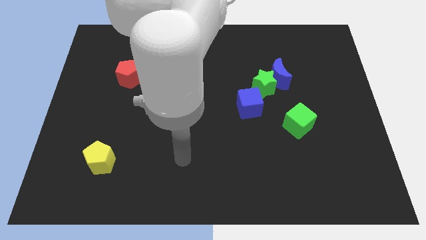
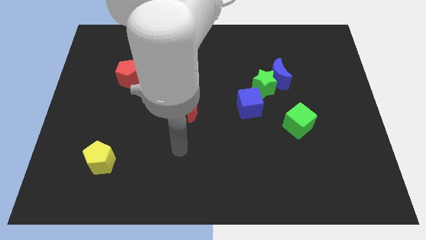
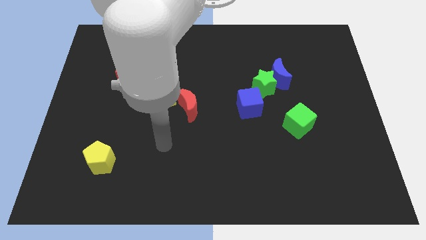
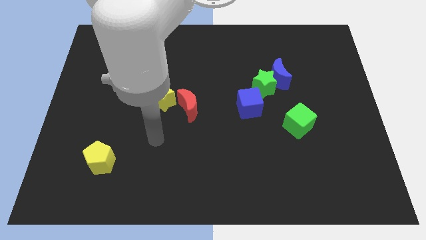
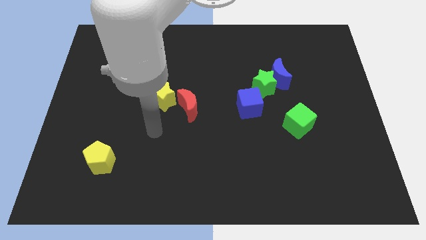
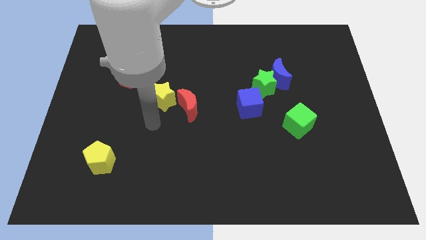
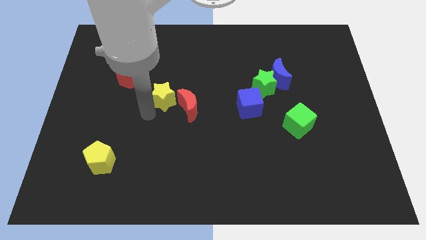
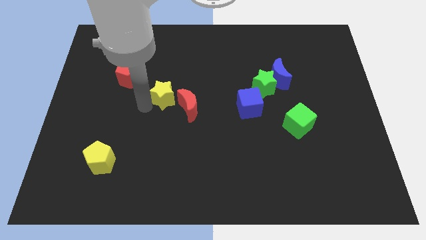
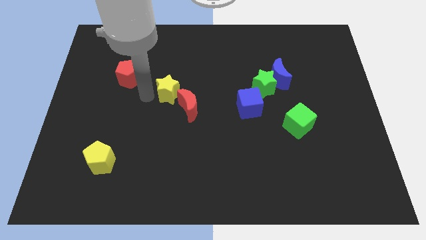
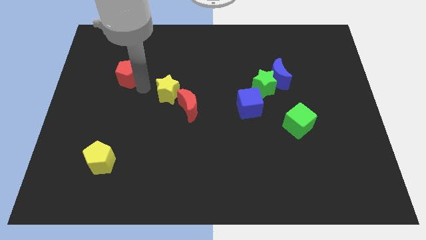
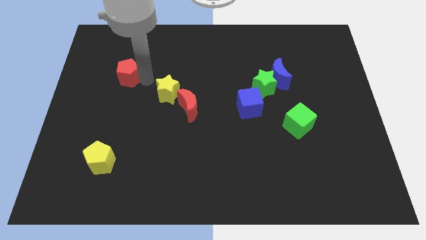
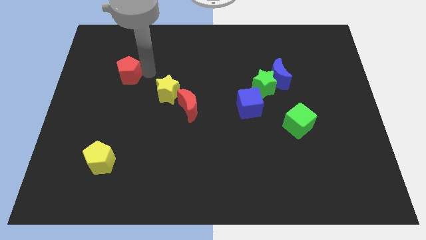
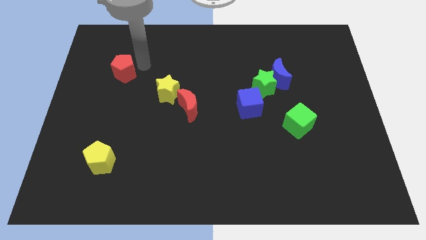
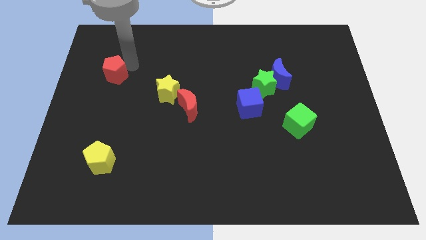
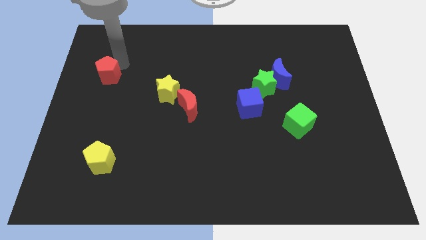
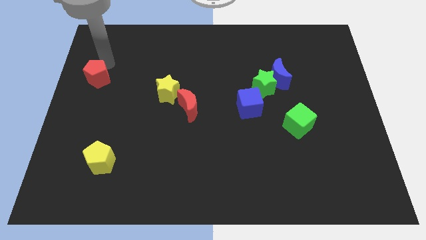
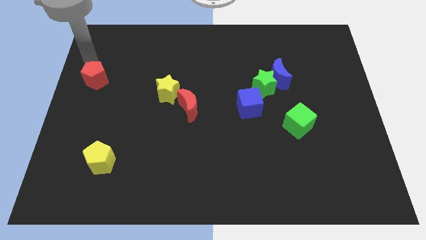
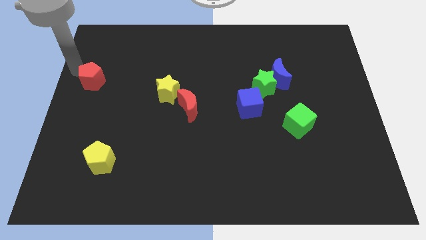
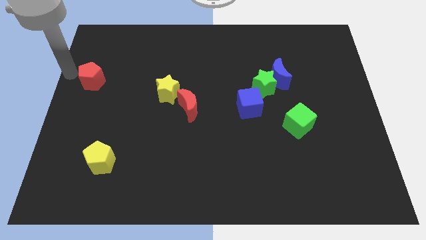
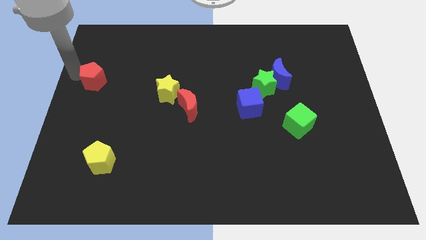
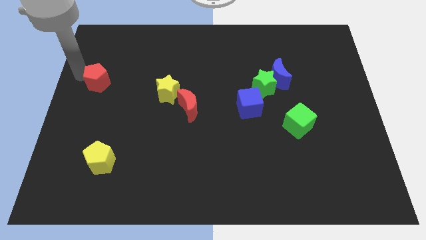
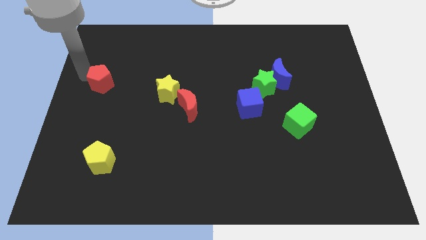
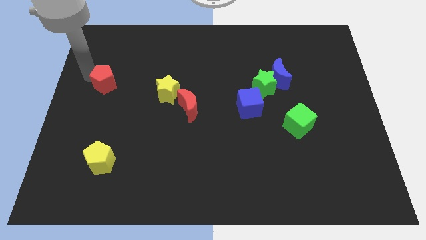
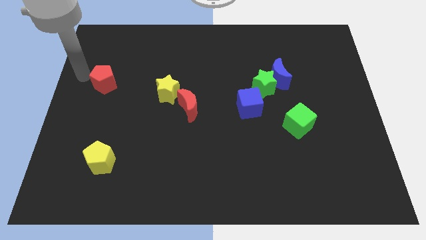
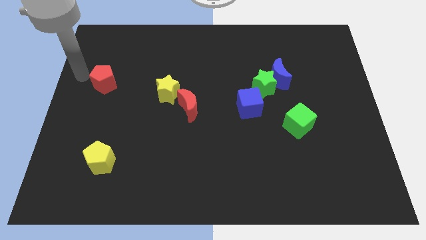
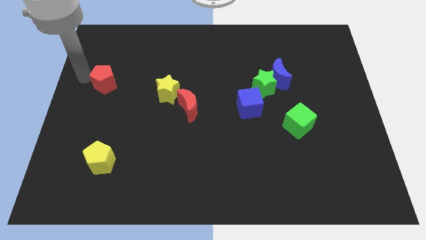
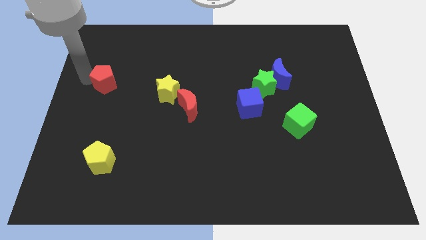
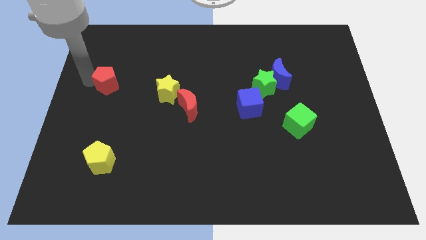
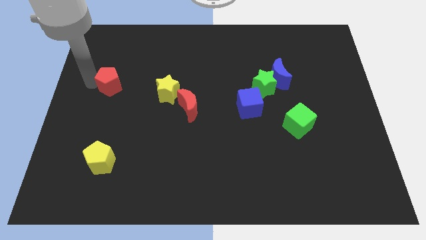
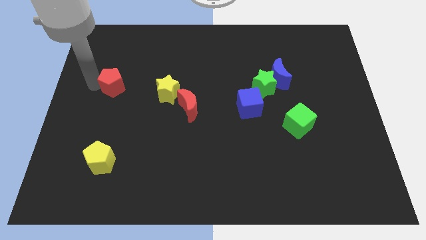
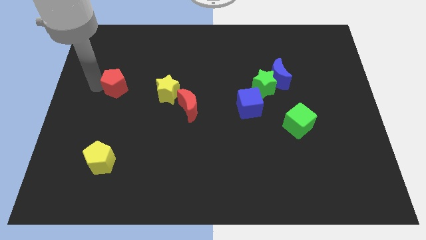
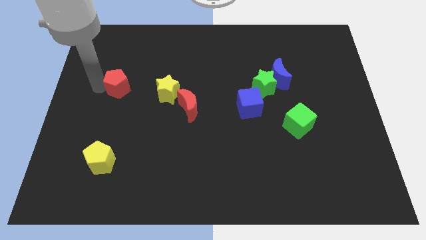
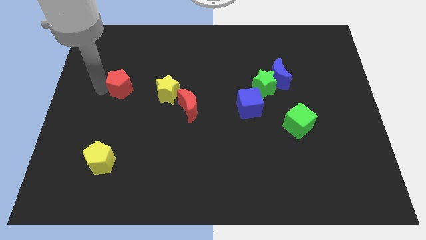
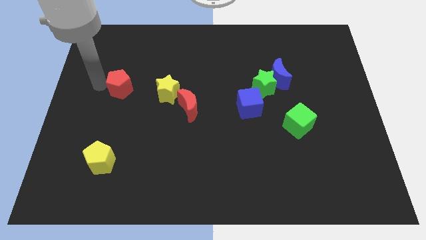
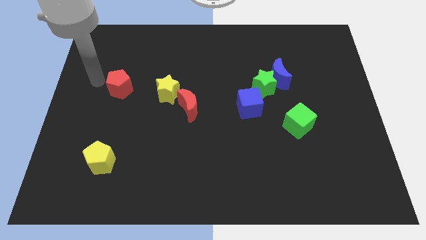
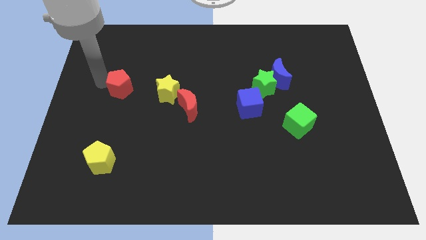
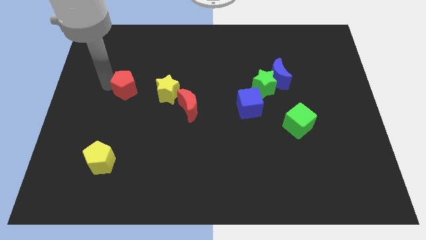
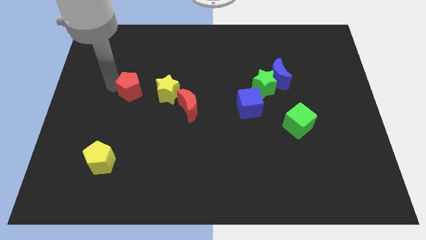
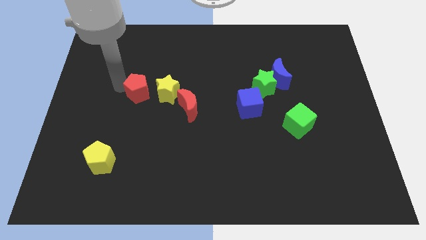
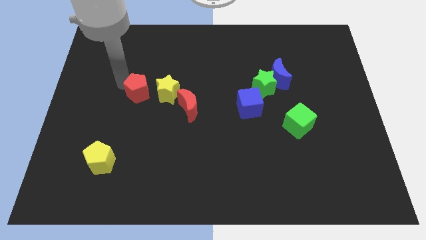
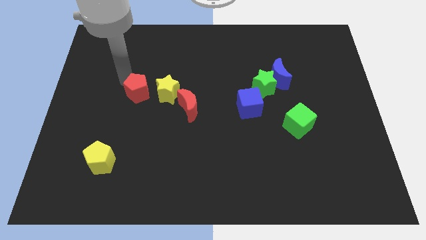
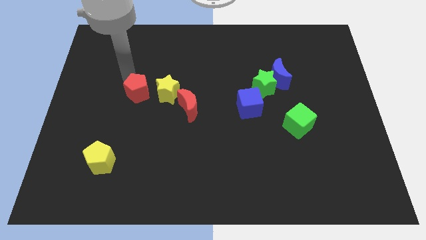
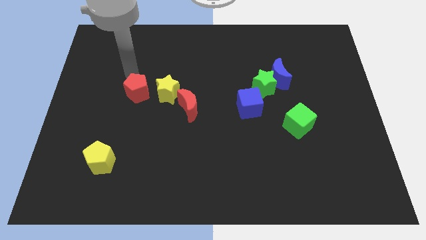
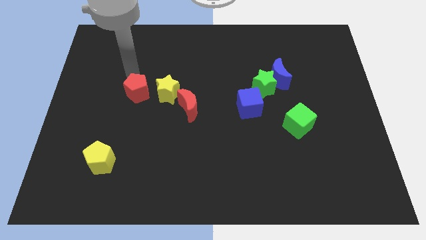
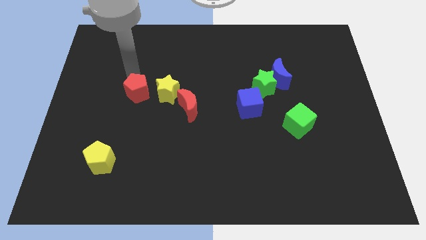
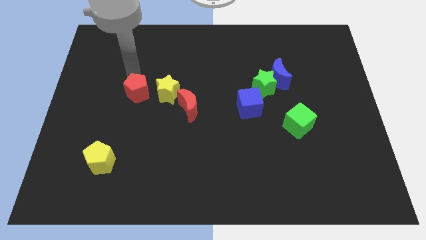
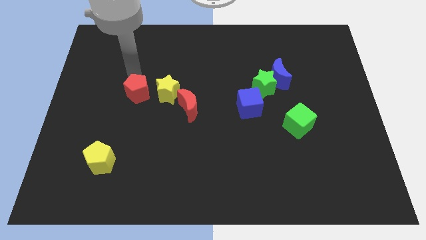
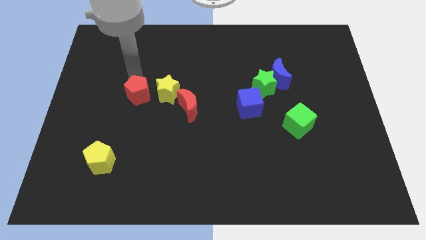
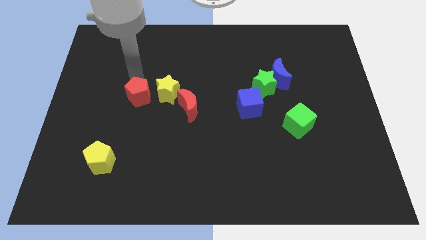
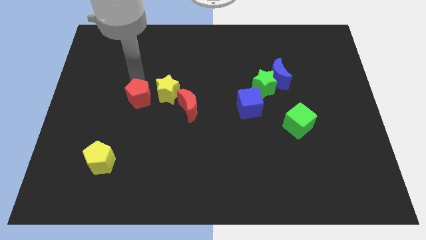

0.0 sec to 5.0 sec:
push the red pentagon diagonally down and right a bit

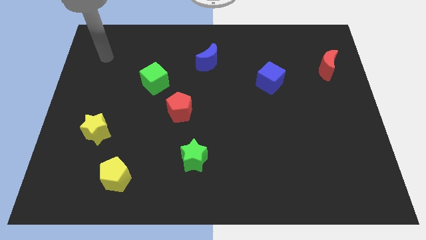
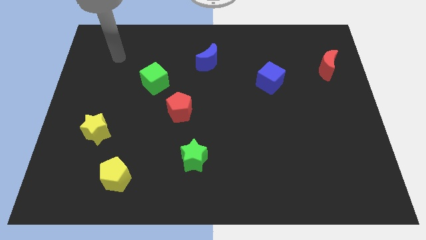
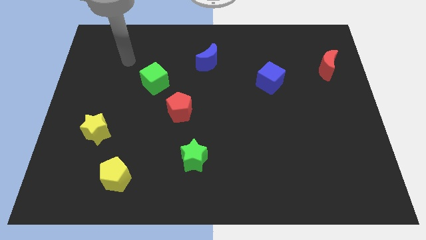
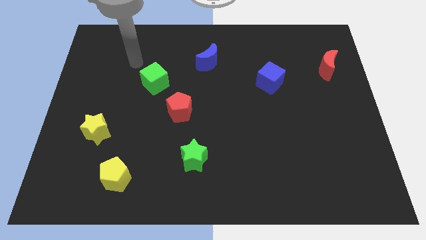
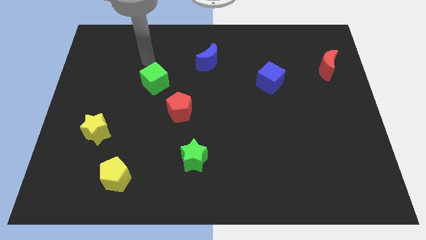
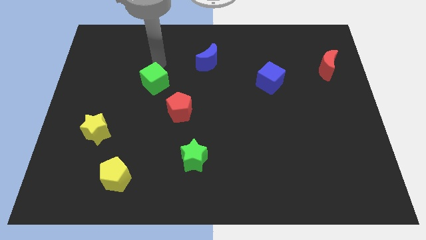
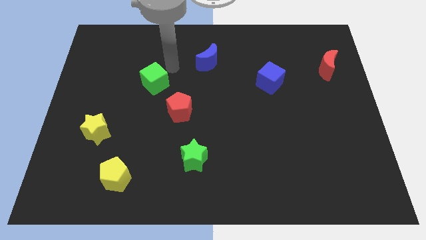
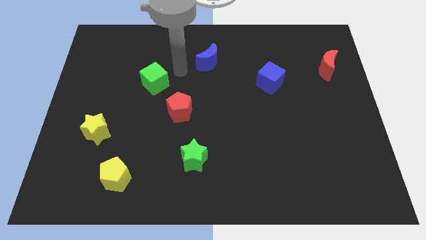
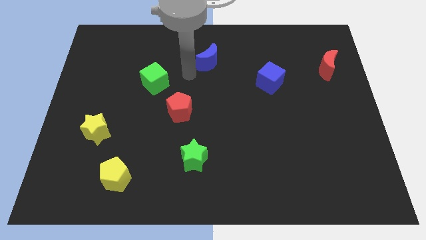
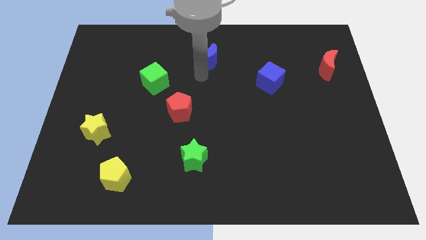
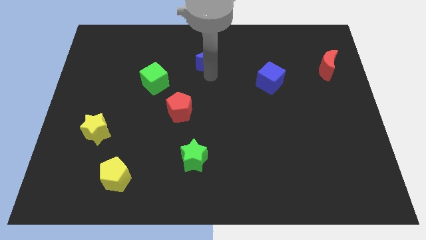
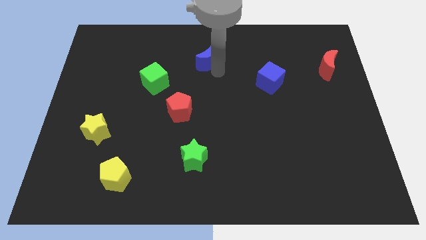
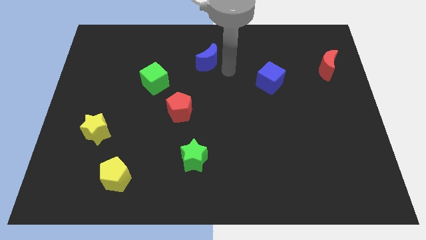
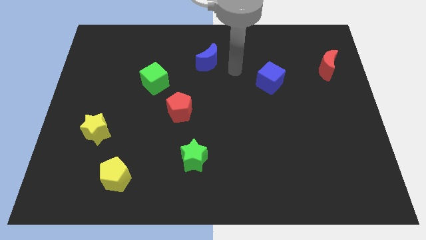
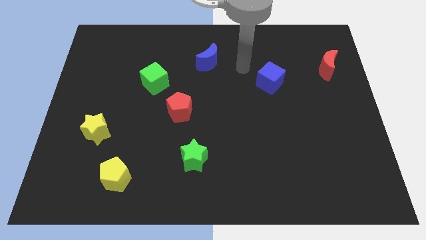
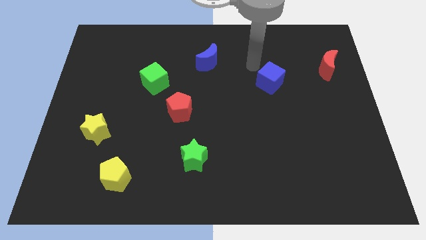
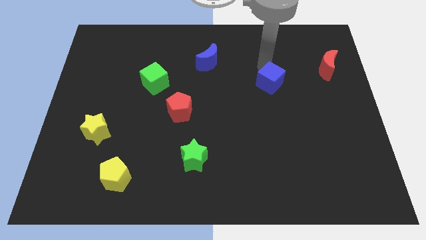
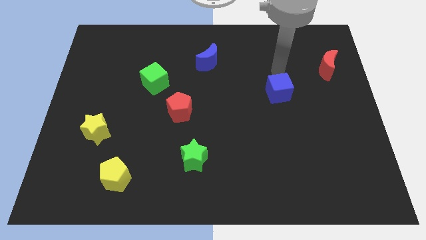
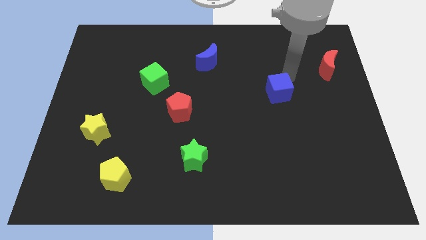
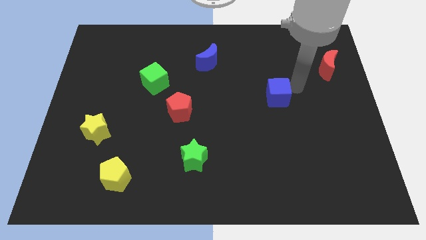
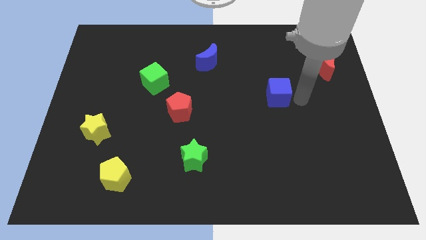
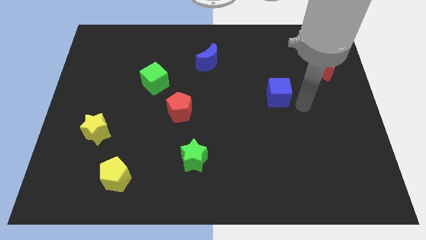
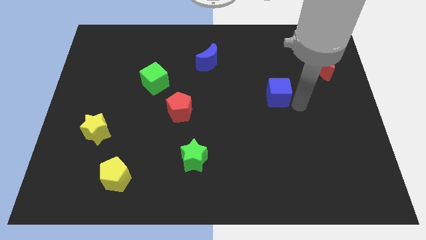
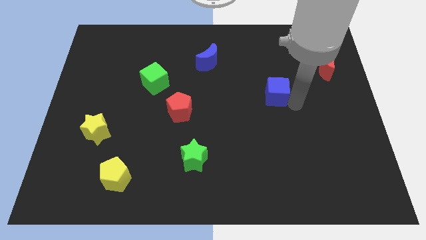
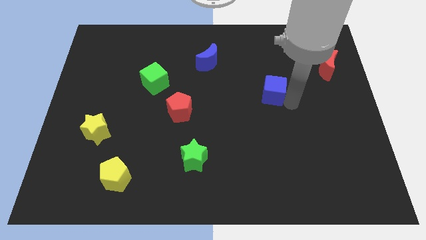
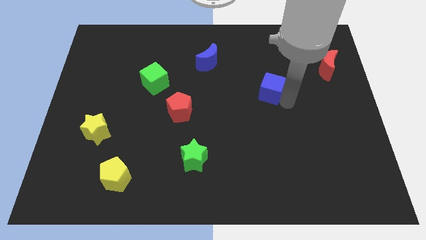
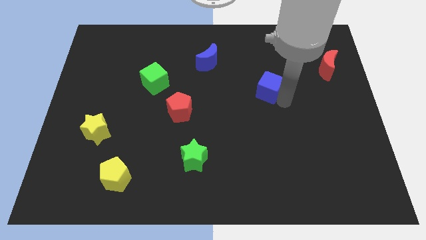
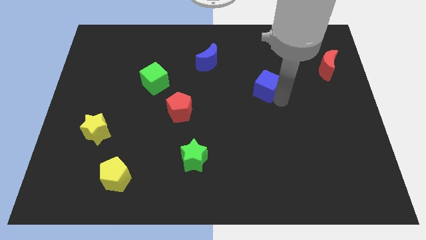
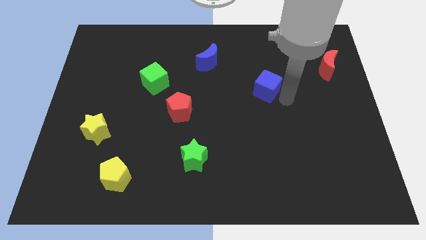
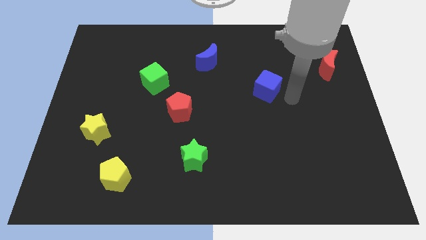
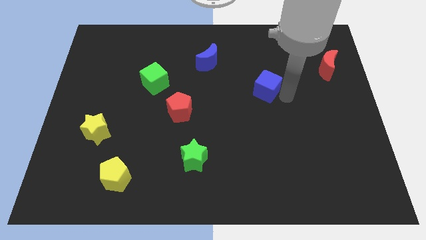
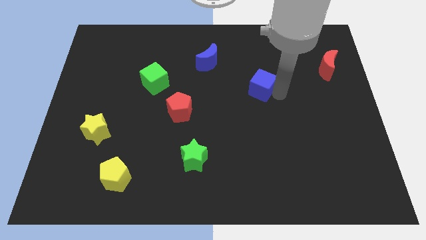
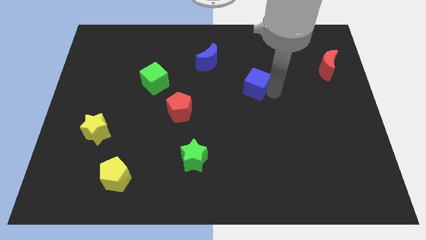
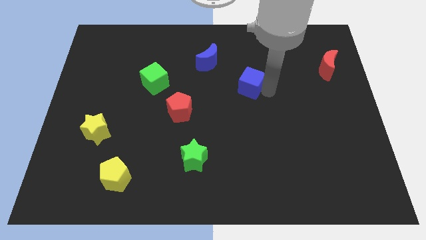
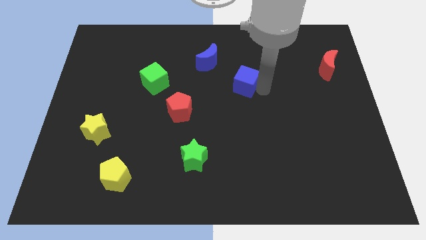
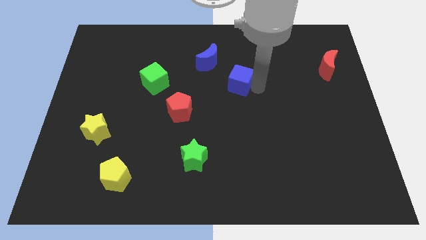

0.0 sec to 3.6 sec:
slightly push the blue cube left
